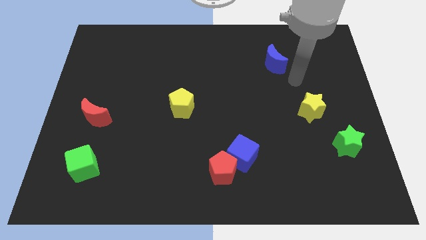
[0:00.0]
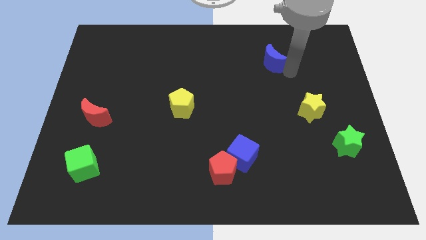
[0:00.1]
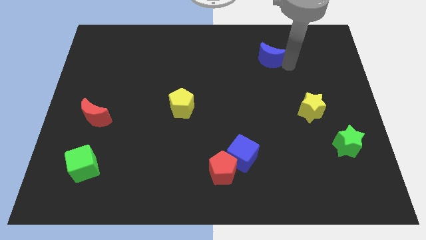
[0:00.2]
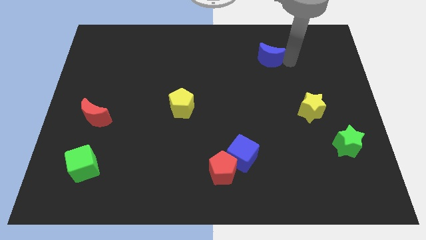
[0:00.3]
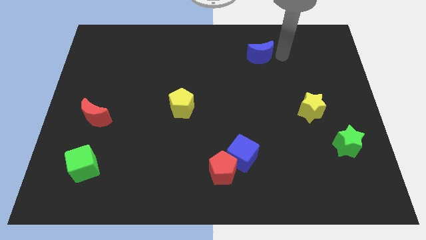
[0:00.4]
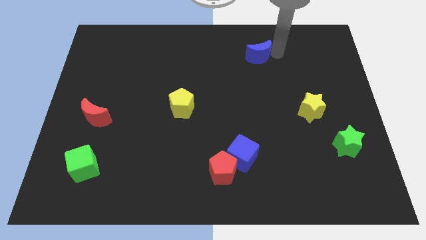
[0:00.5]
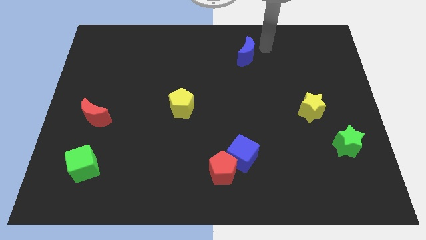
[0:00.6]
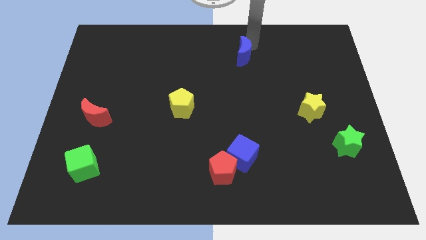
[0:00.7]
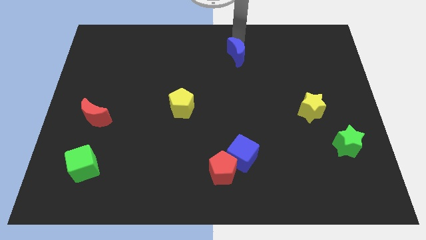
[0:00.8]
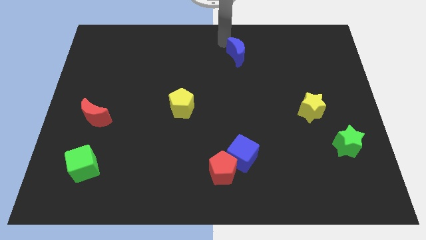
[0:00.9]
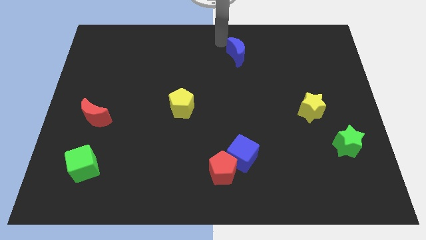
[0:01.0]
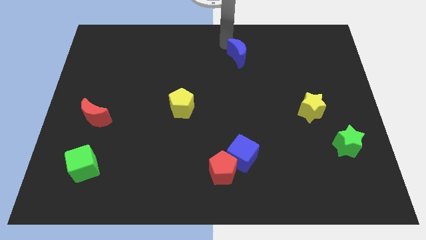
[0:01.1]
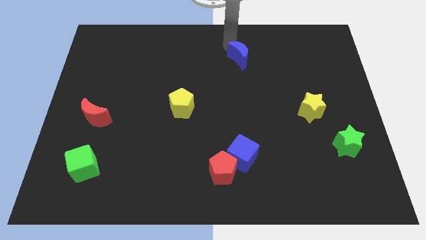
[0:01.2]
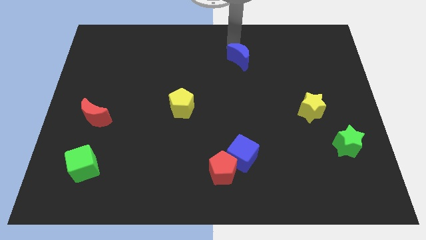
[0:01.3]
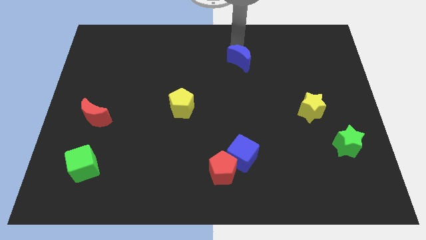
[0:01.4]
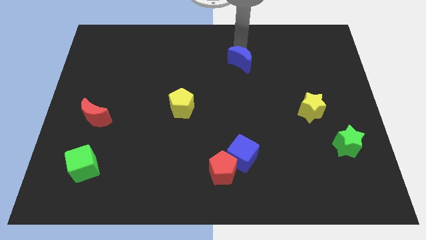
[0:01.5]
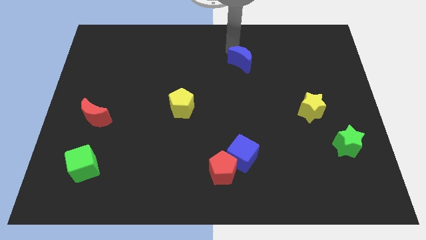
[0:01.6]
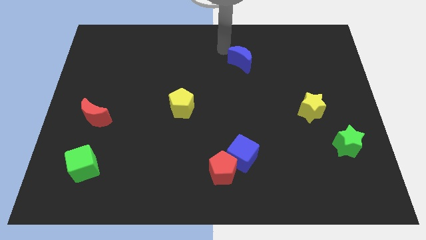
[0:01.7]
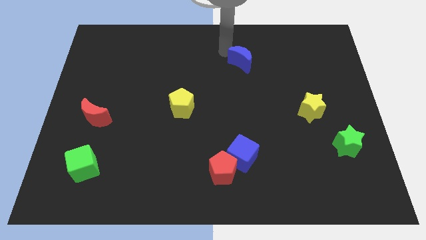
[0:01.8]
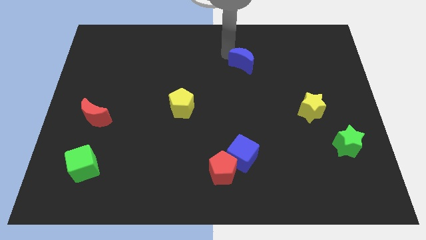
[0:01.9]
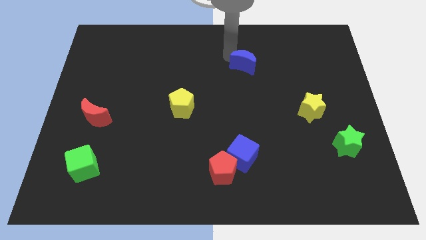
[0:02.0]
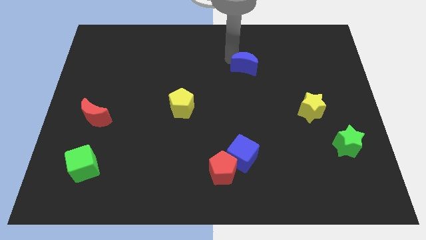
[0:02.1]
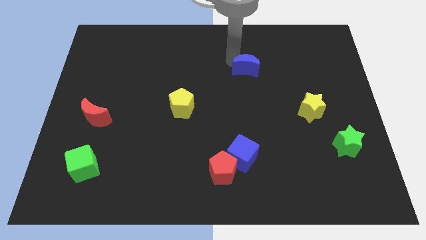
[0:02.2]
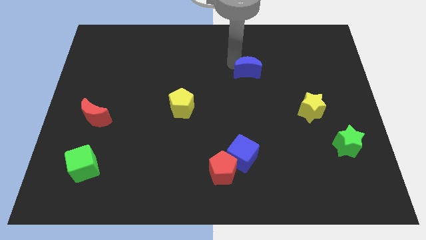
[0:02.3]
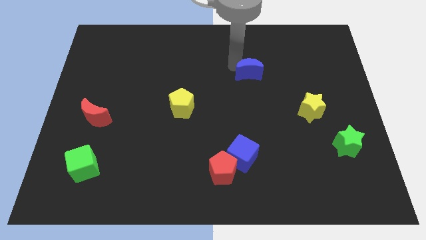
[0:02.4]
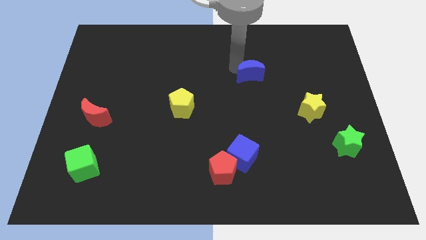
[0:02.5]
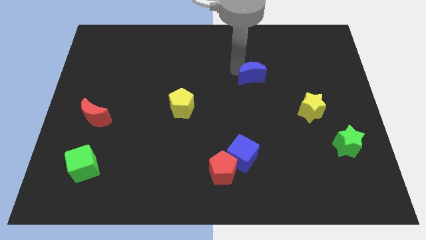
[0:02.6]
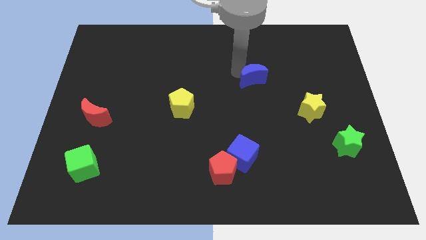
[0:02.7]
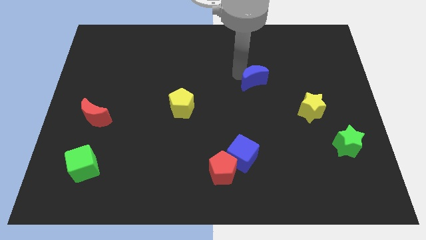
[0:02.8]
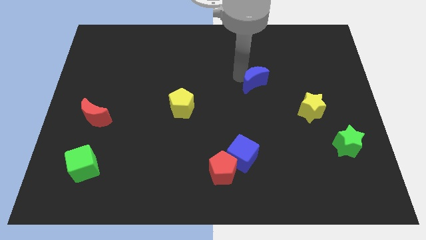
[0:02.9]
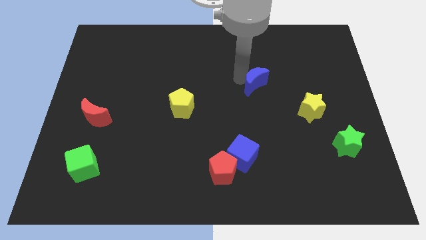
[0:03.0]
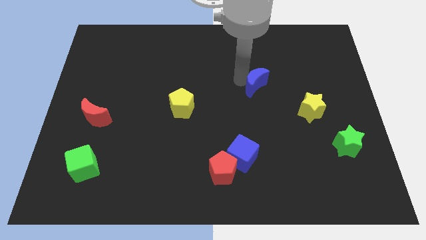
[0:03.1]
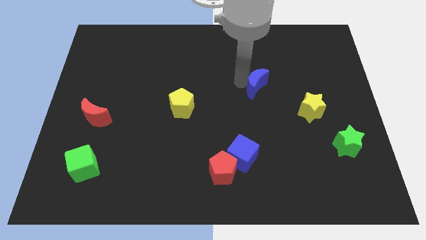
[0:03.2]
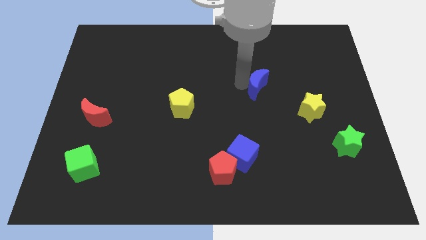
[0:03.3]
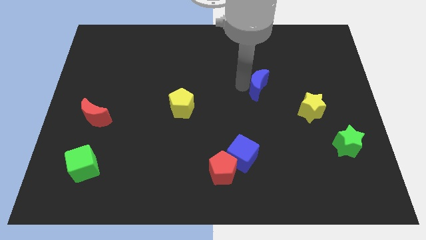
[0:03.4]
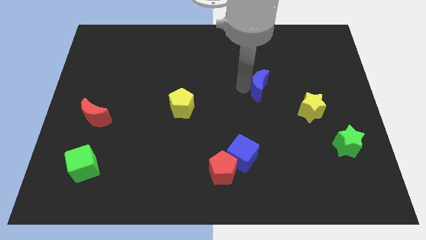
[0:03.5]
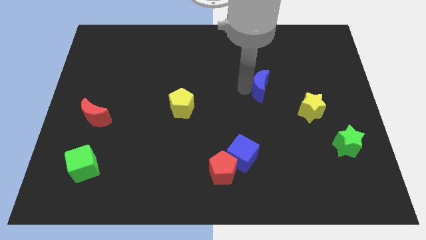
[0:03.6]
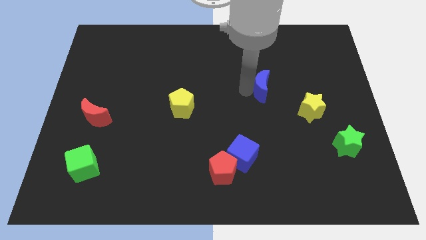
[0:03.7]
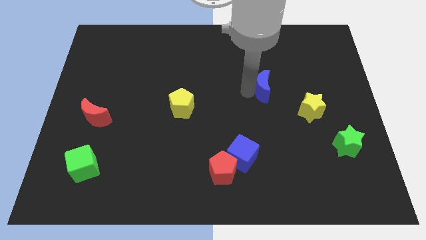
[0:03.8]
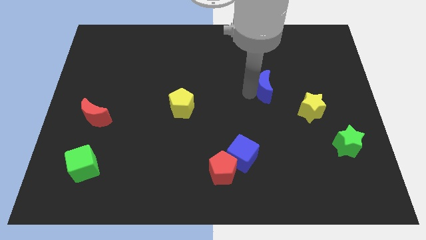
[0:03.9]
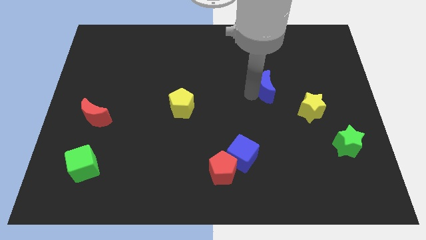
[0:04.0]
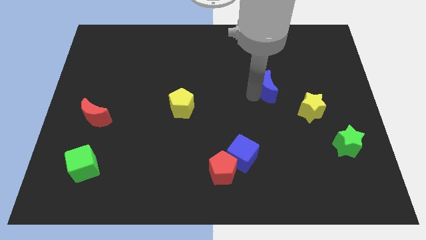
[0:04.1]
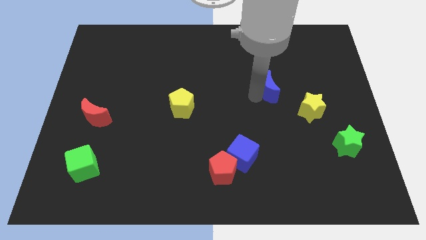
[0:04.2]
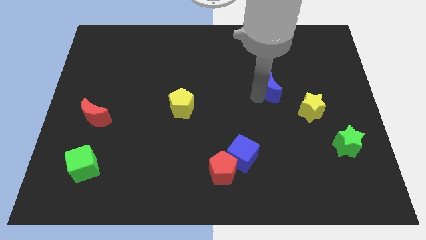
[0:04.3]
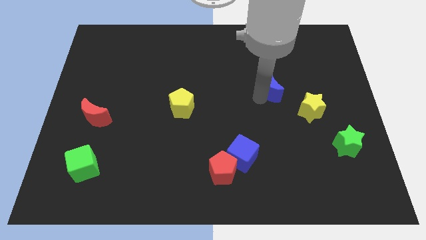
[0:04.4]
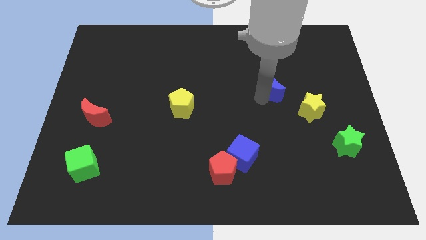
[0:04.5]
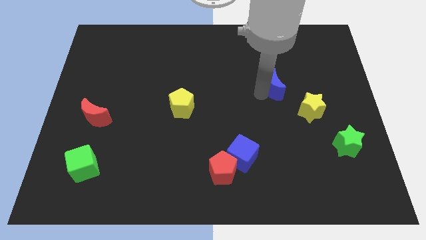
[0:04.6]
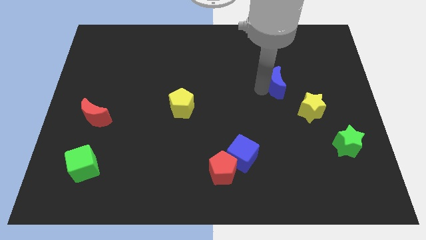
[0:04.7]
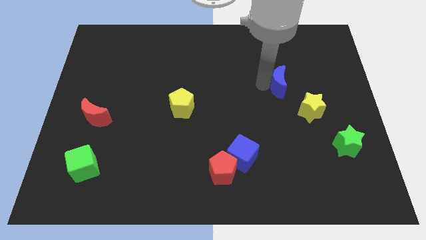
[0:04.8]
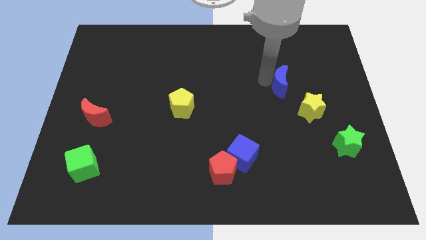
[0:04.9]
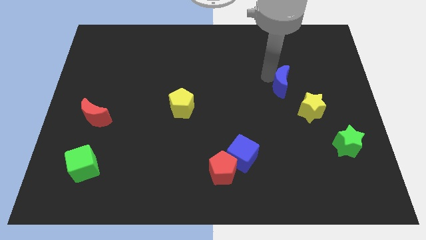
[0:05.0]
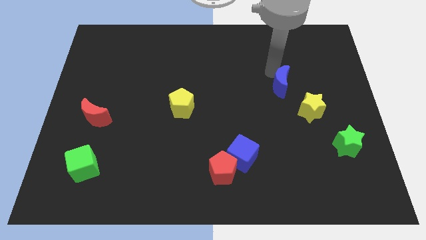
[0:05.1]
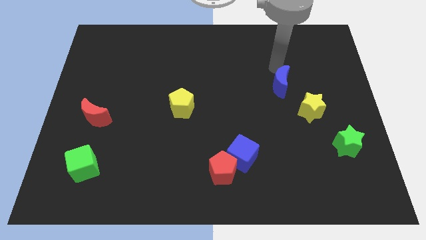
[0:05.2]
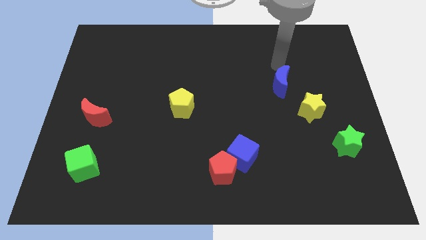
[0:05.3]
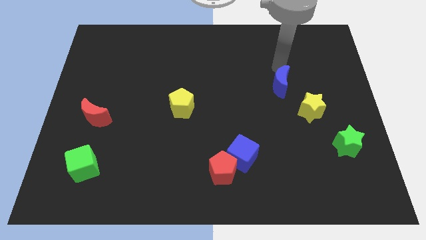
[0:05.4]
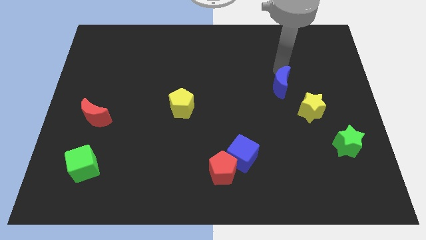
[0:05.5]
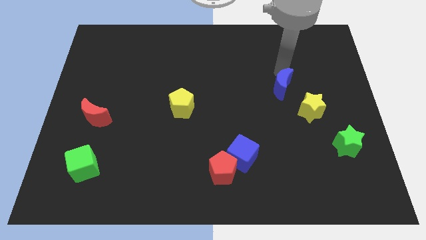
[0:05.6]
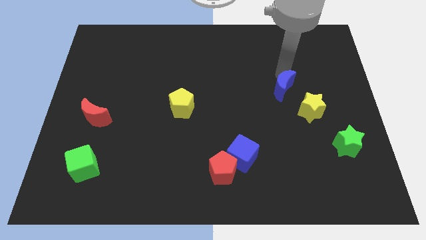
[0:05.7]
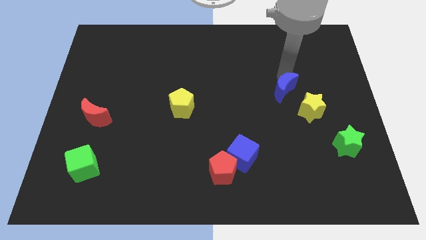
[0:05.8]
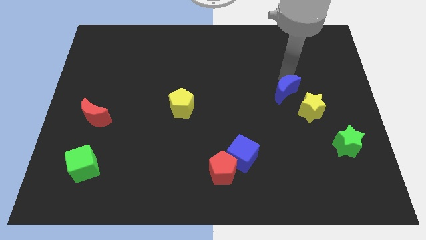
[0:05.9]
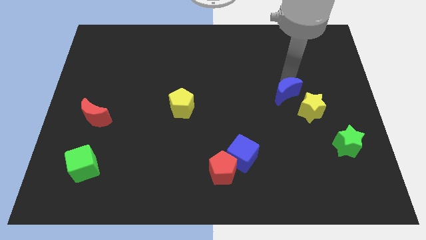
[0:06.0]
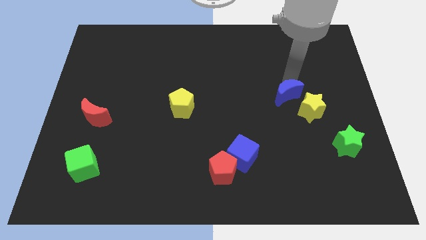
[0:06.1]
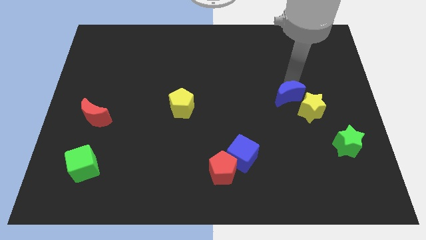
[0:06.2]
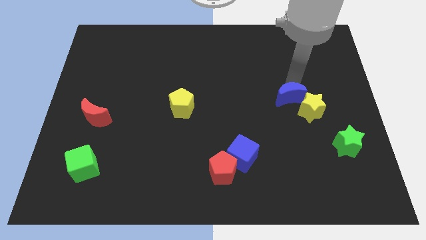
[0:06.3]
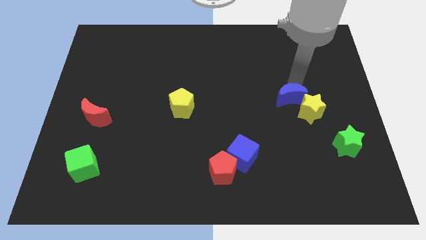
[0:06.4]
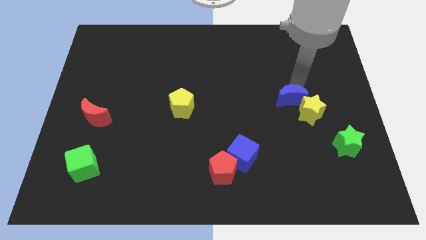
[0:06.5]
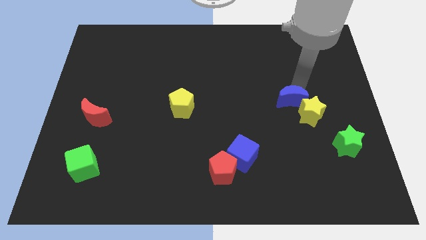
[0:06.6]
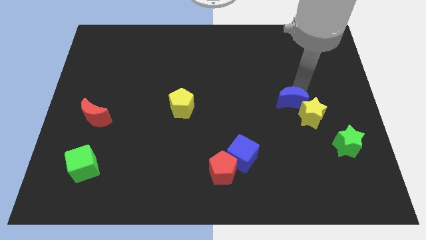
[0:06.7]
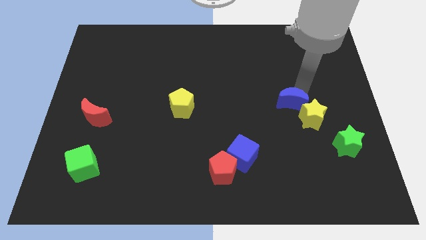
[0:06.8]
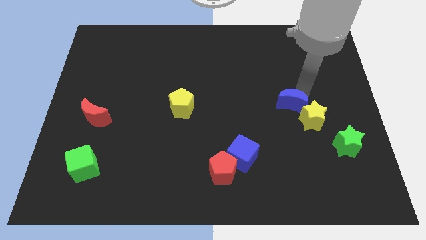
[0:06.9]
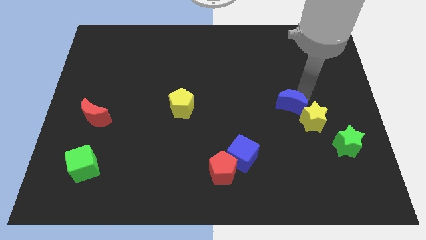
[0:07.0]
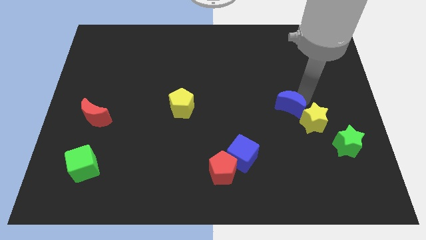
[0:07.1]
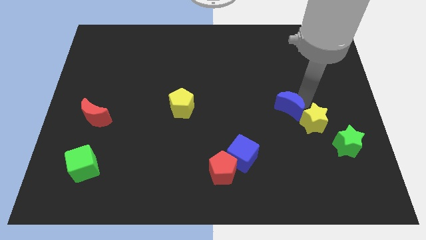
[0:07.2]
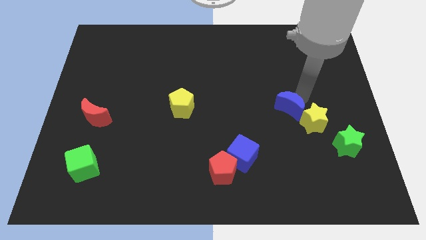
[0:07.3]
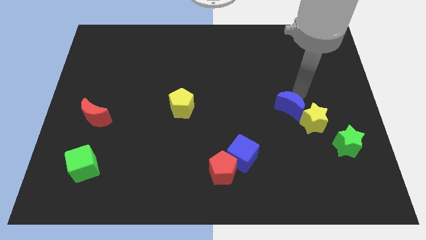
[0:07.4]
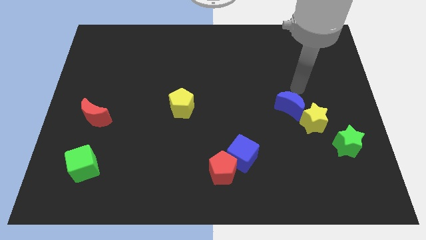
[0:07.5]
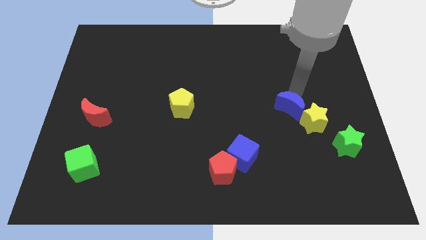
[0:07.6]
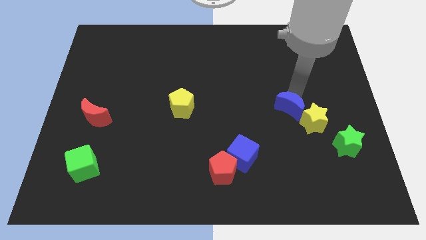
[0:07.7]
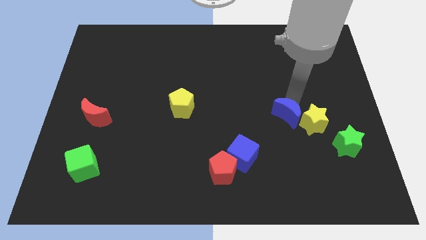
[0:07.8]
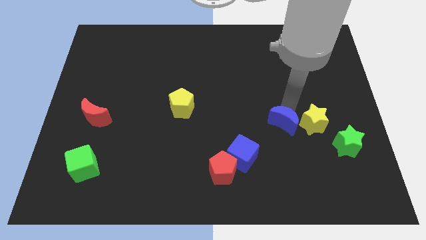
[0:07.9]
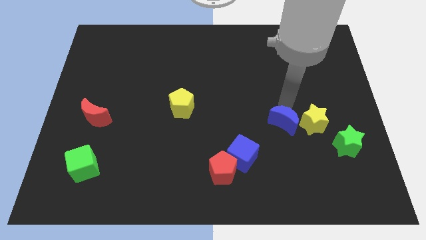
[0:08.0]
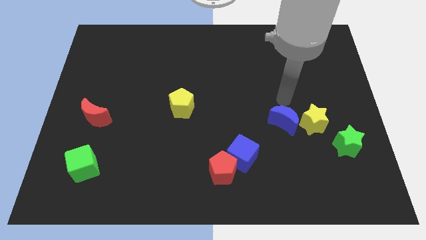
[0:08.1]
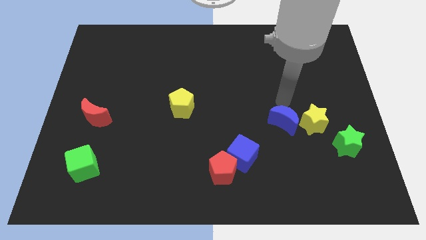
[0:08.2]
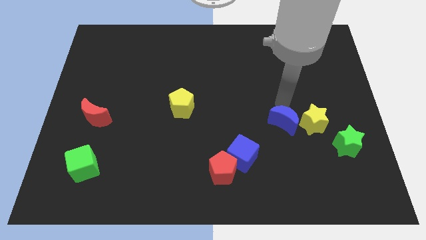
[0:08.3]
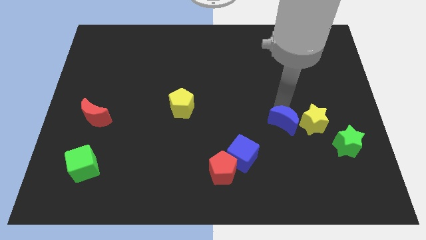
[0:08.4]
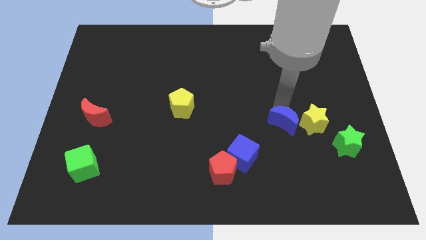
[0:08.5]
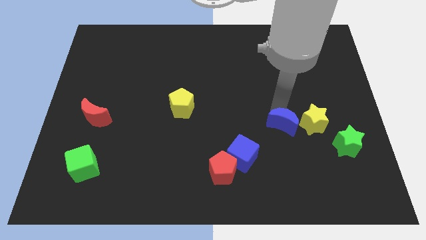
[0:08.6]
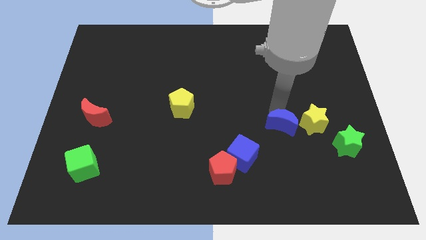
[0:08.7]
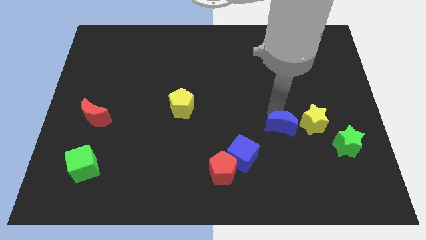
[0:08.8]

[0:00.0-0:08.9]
push the blue moon down
